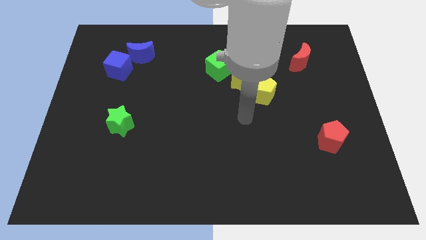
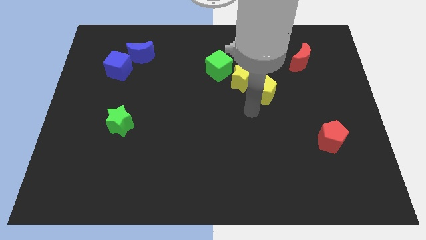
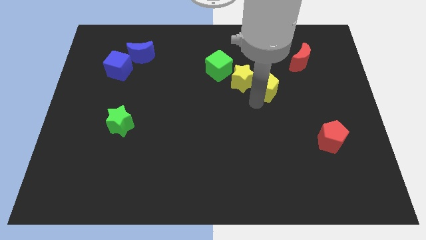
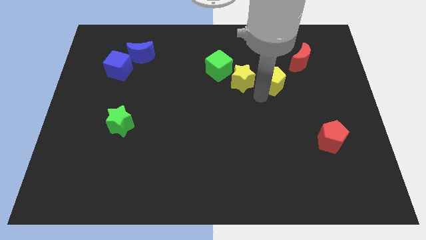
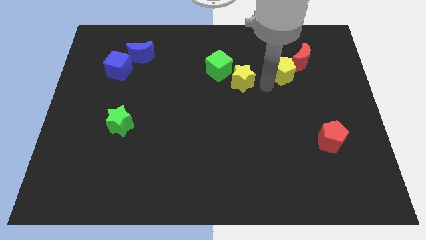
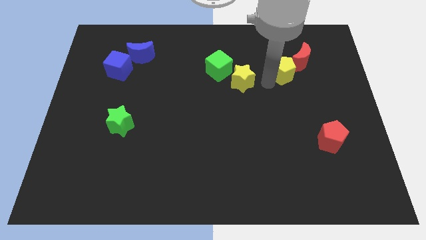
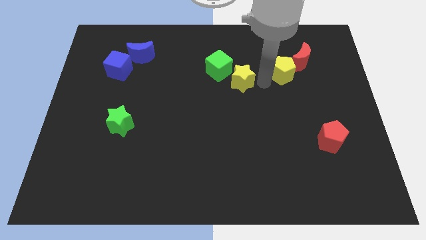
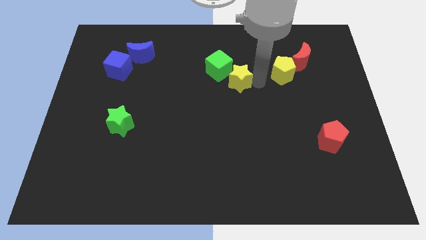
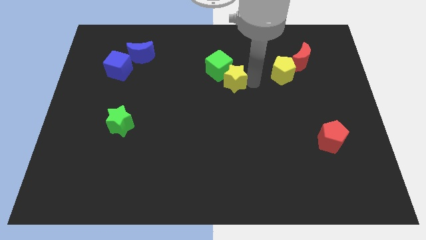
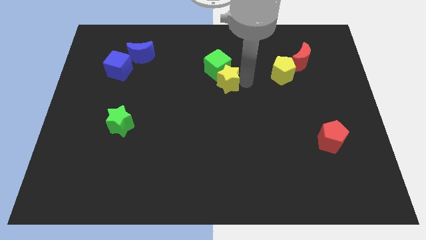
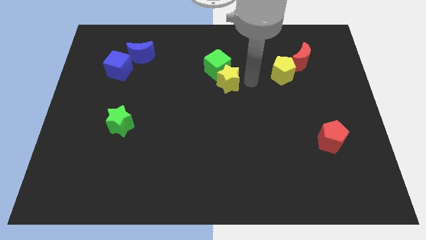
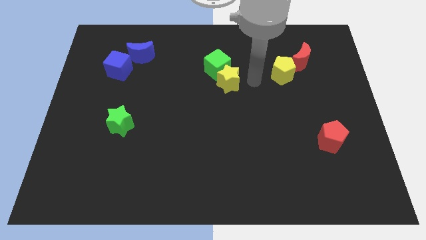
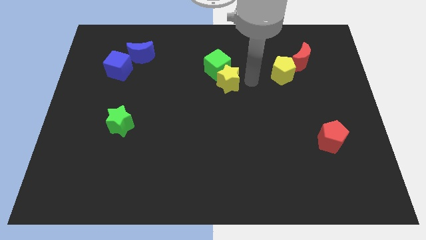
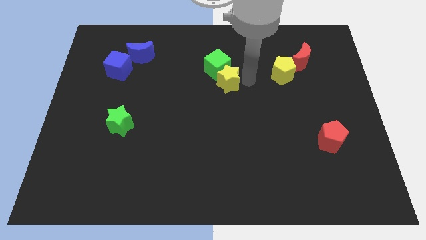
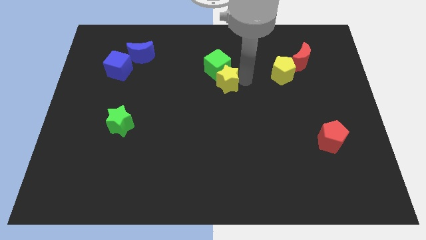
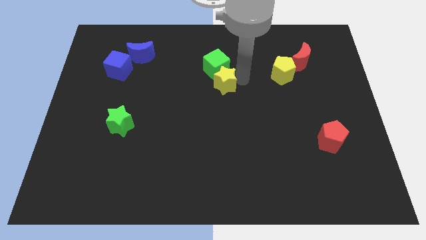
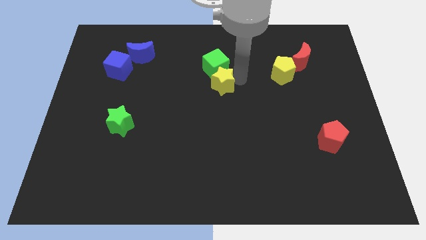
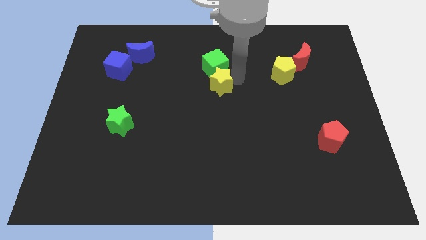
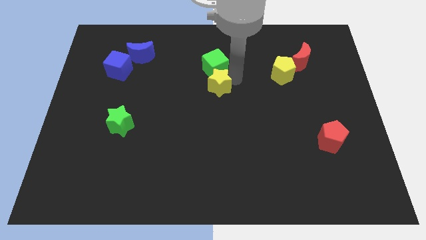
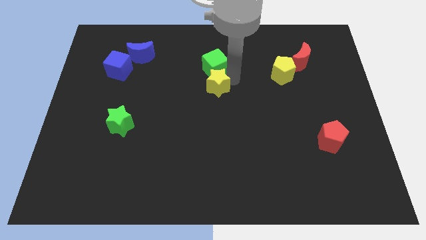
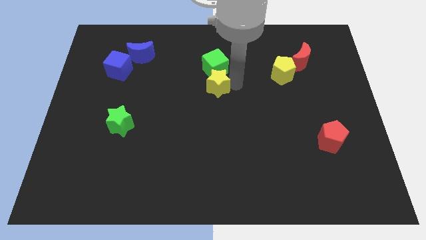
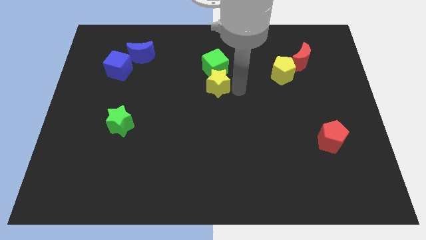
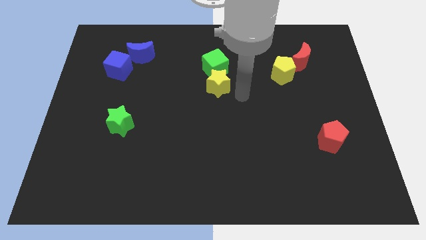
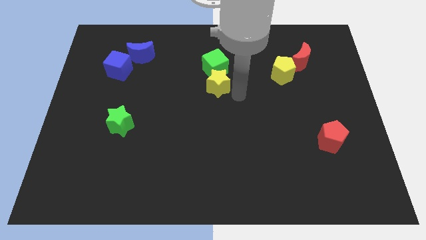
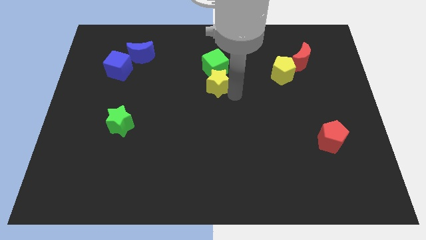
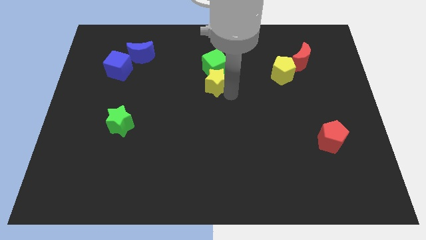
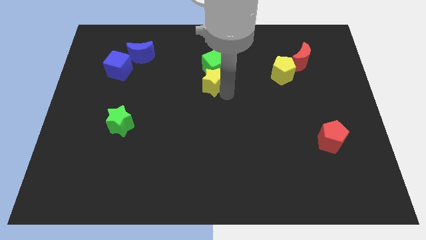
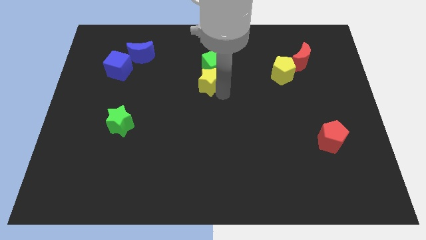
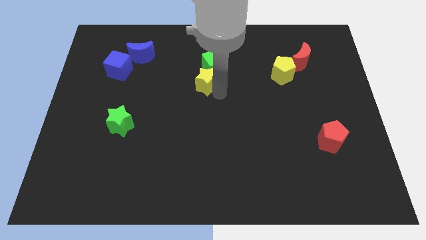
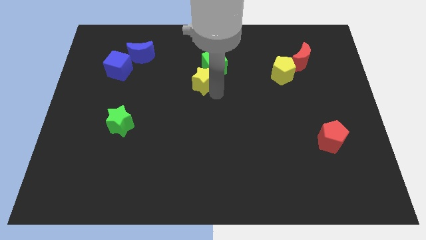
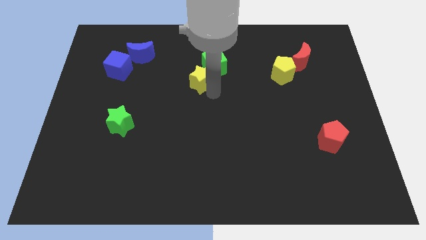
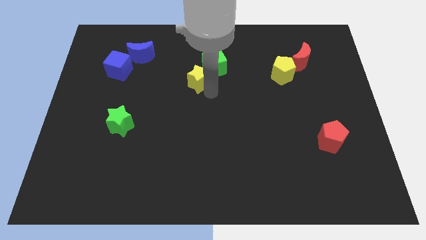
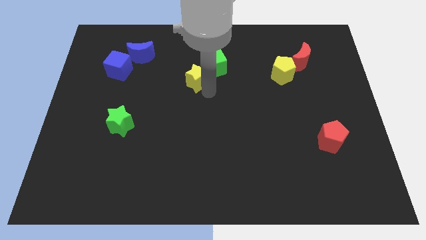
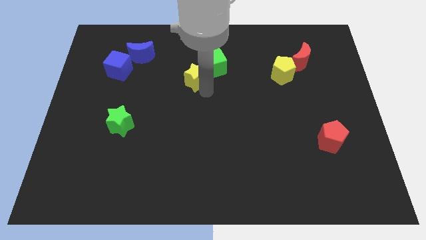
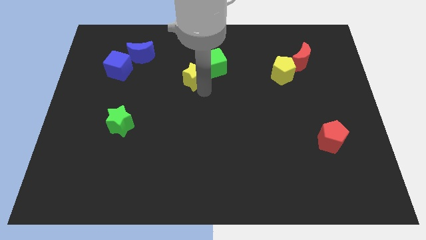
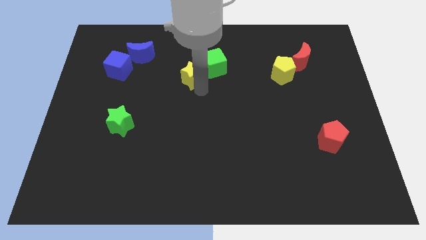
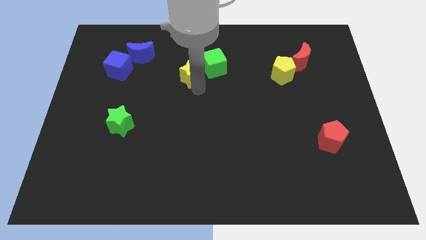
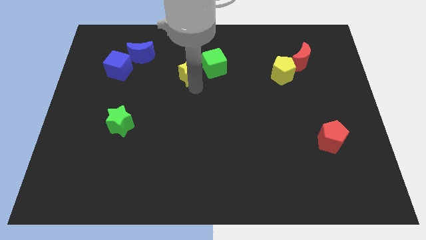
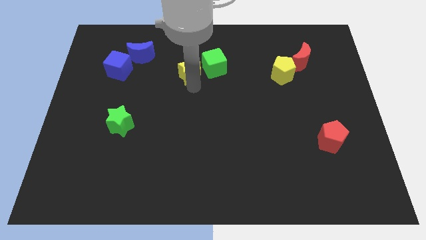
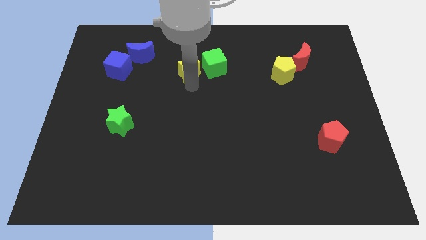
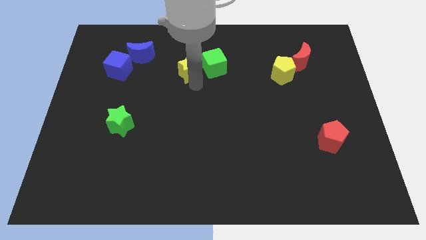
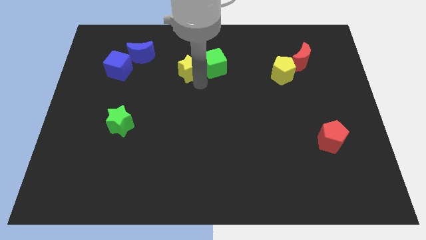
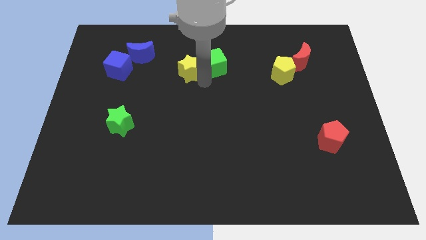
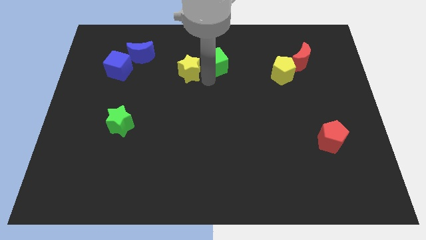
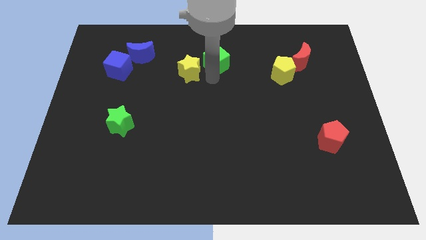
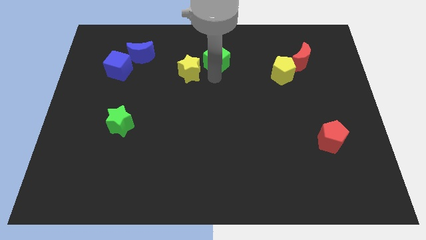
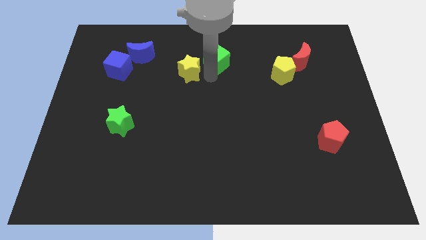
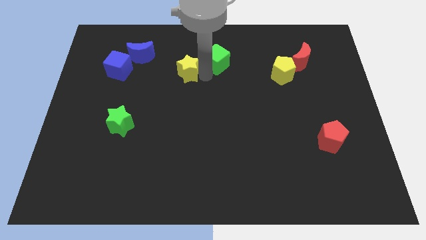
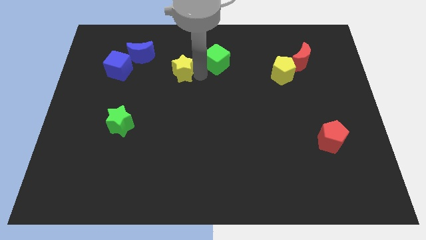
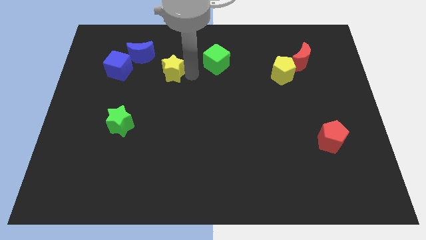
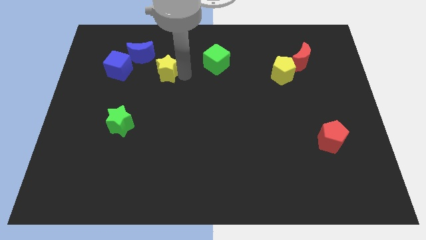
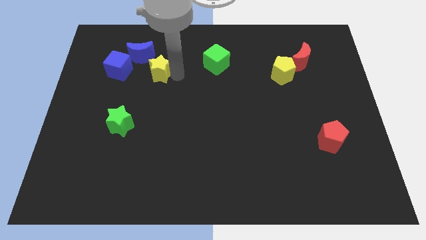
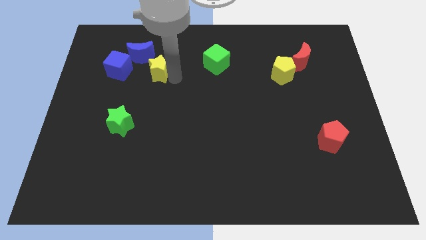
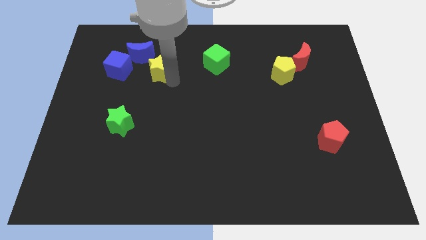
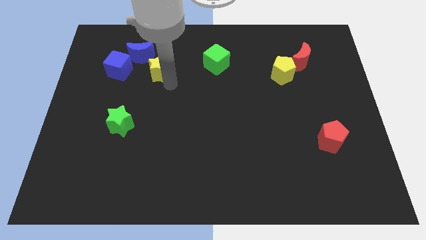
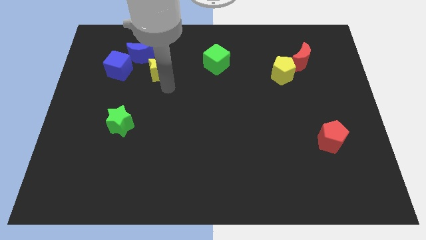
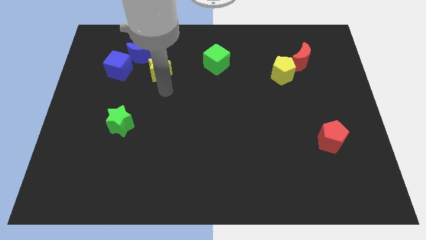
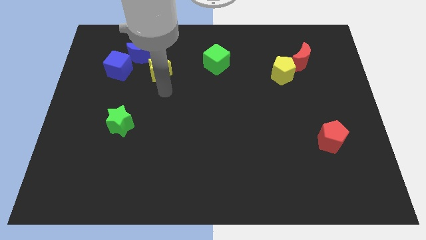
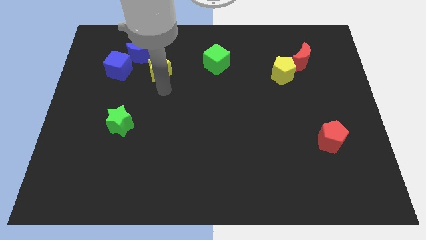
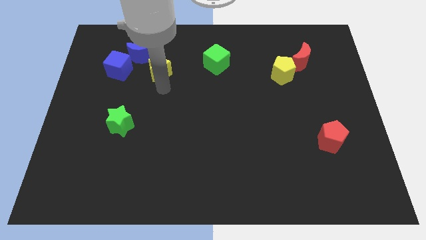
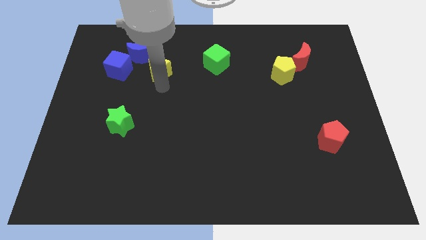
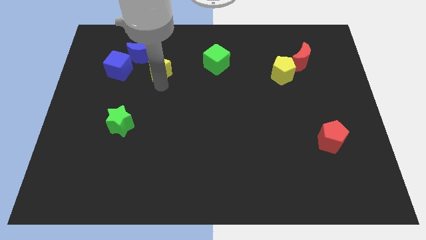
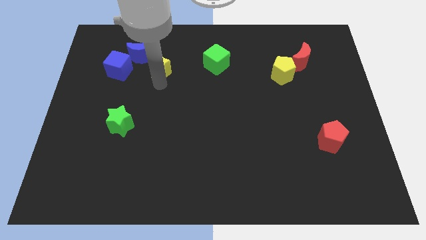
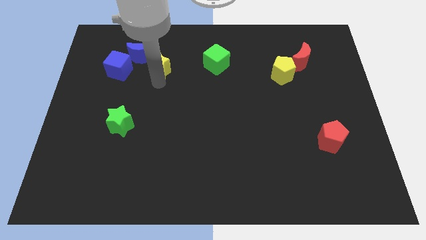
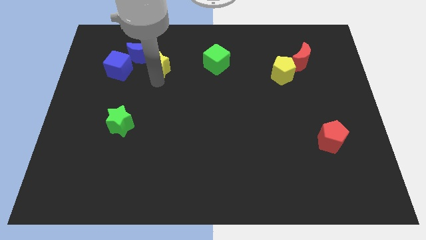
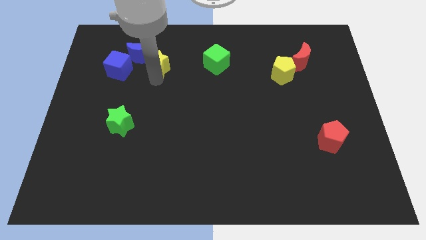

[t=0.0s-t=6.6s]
put the yellow star to the blue moon
